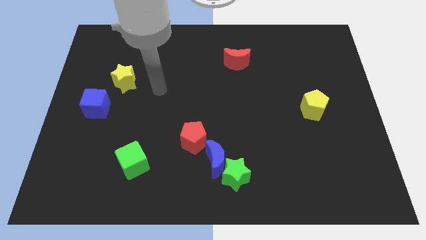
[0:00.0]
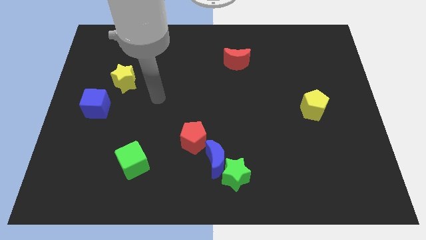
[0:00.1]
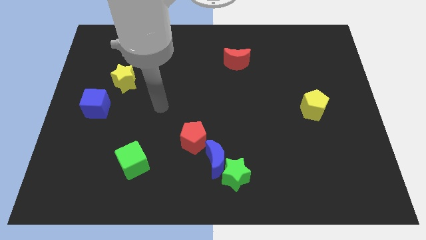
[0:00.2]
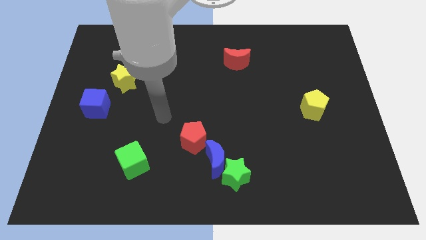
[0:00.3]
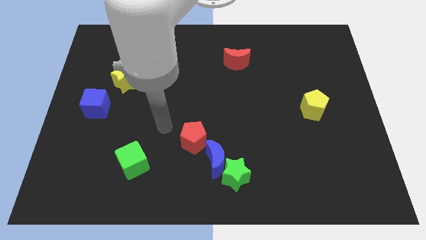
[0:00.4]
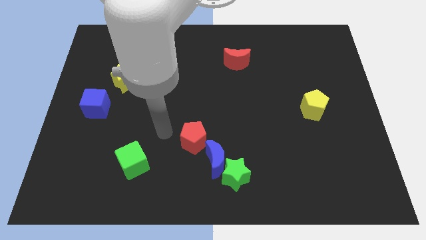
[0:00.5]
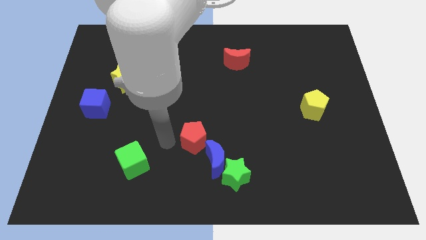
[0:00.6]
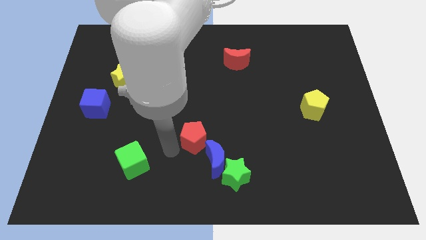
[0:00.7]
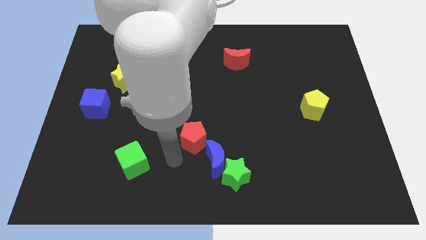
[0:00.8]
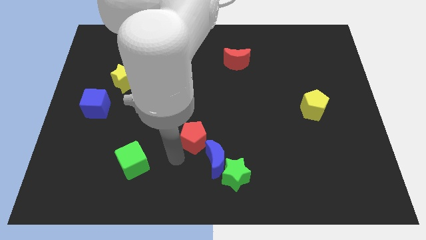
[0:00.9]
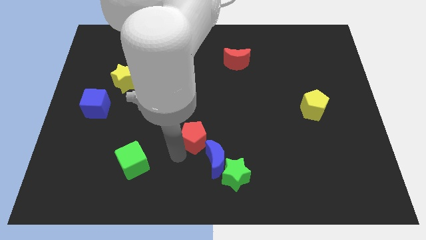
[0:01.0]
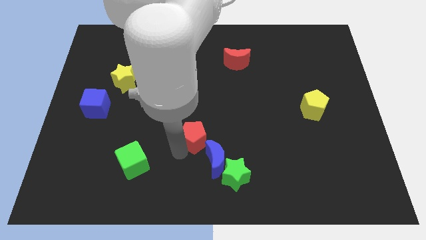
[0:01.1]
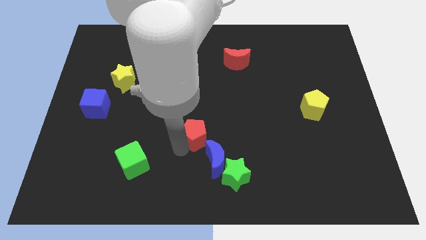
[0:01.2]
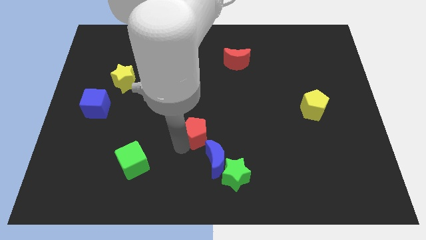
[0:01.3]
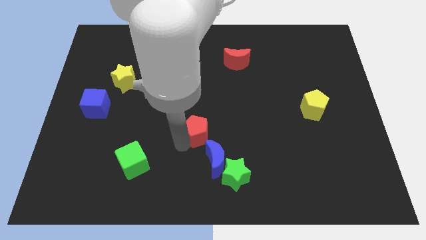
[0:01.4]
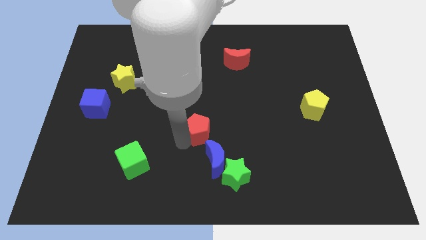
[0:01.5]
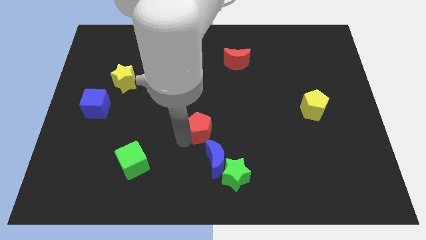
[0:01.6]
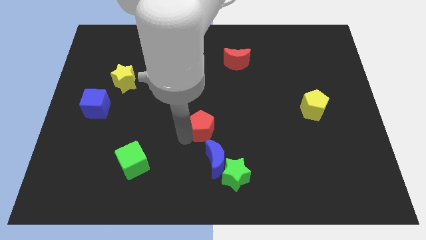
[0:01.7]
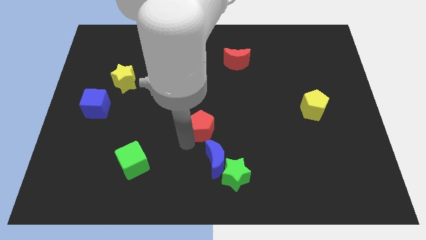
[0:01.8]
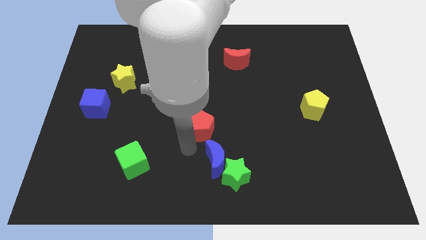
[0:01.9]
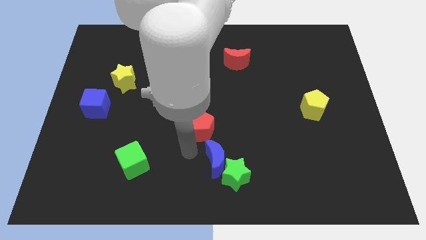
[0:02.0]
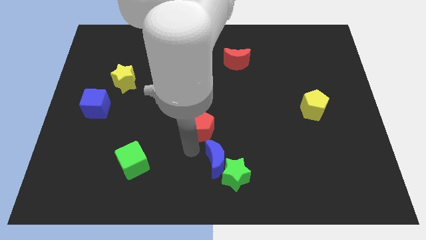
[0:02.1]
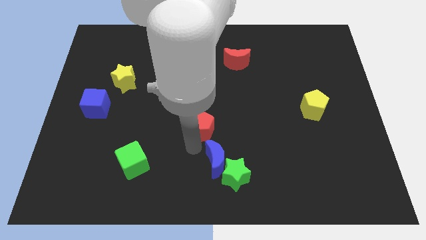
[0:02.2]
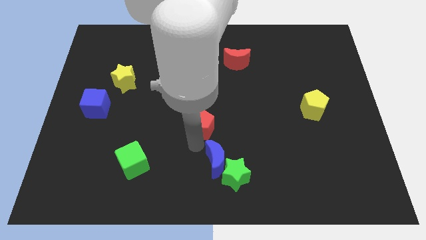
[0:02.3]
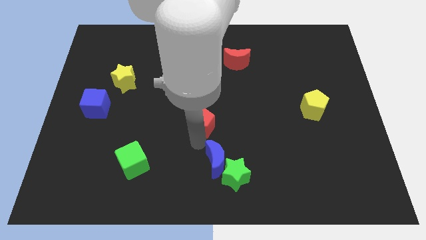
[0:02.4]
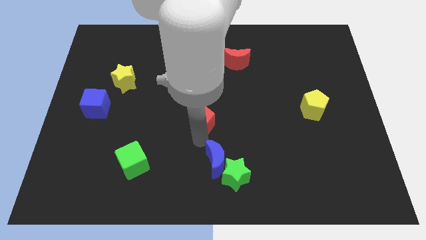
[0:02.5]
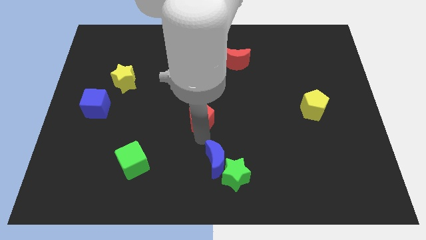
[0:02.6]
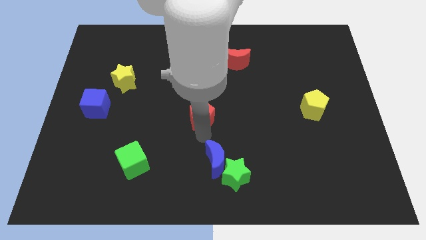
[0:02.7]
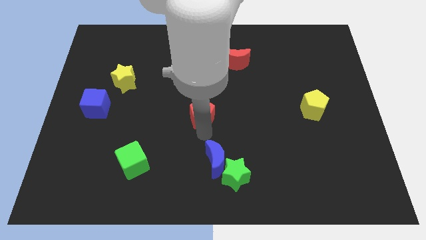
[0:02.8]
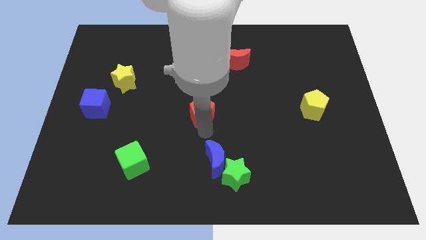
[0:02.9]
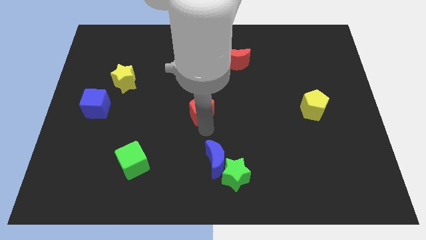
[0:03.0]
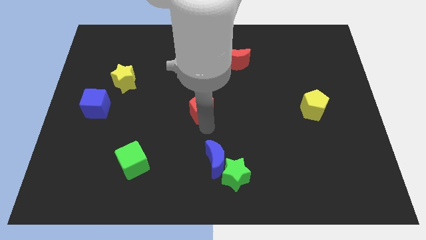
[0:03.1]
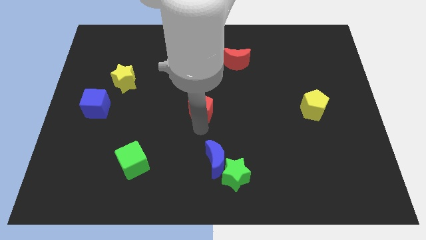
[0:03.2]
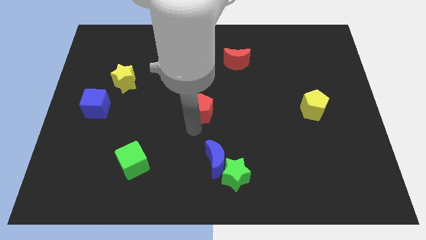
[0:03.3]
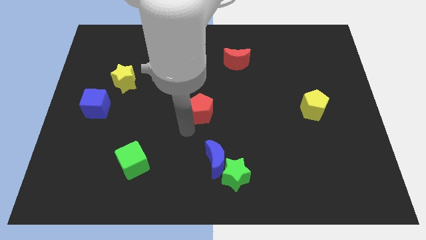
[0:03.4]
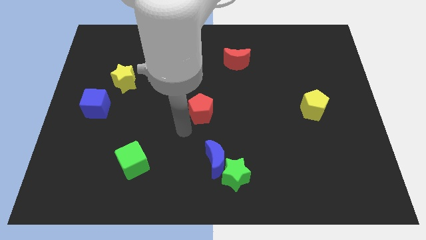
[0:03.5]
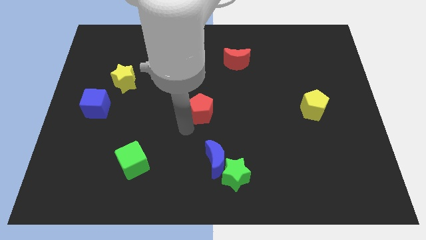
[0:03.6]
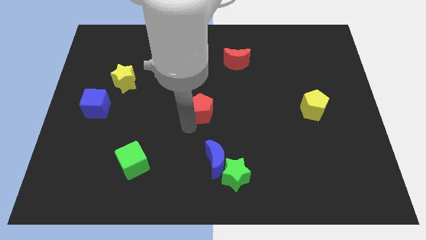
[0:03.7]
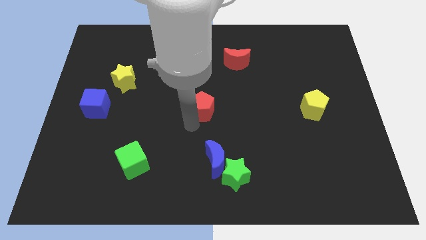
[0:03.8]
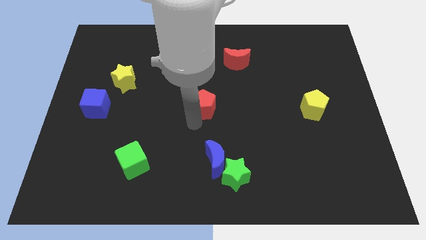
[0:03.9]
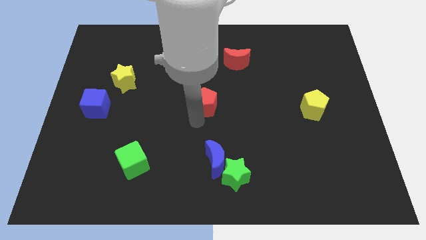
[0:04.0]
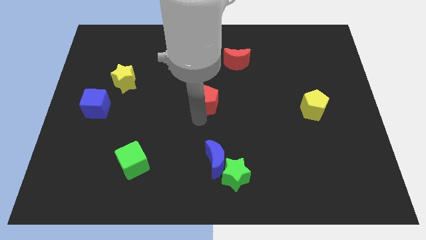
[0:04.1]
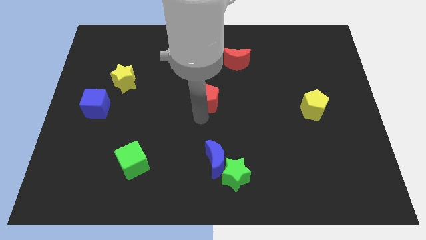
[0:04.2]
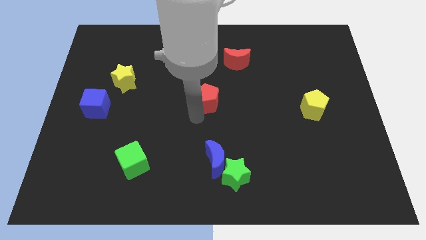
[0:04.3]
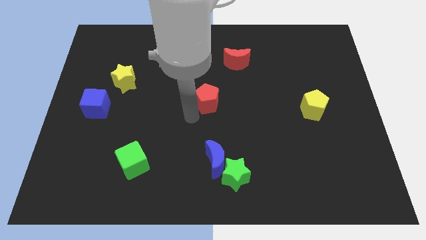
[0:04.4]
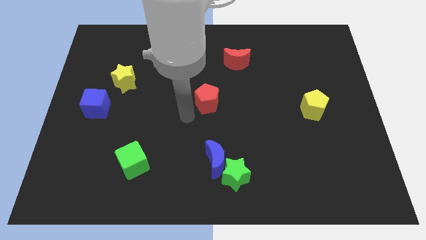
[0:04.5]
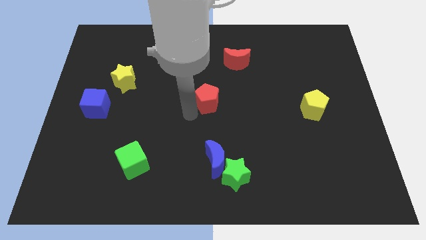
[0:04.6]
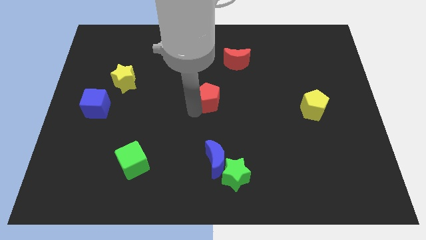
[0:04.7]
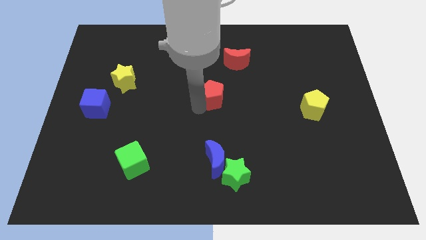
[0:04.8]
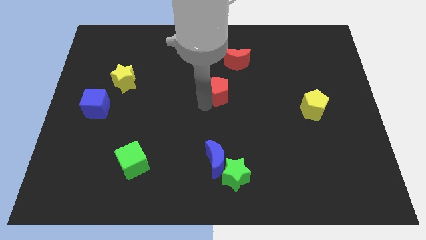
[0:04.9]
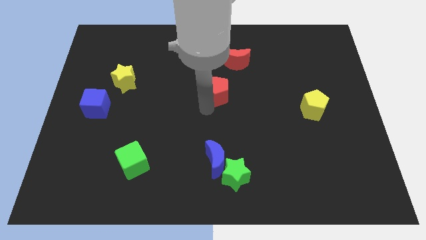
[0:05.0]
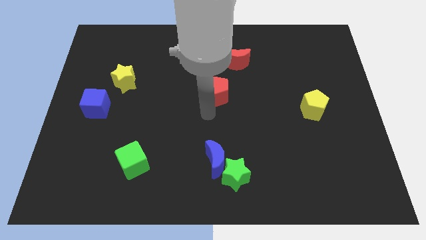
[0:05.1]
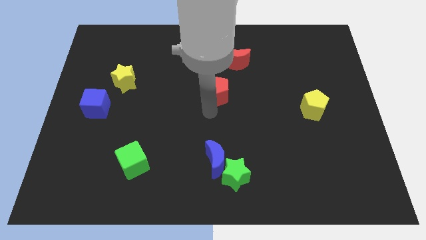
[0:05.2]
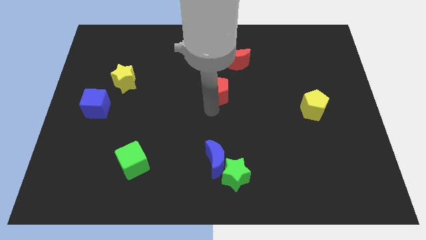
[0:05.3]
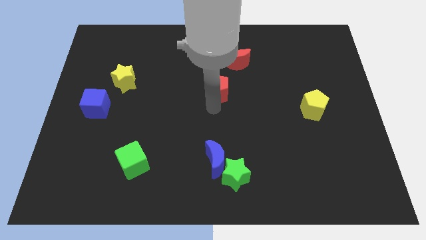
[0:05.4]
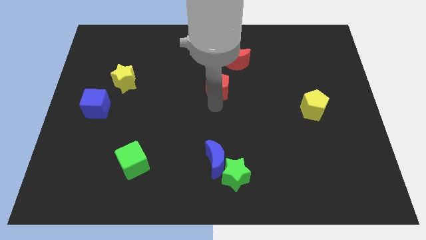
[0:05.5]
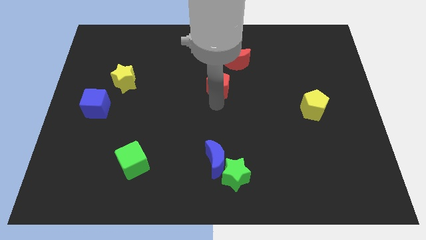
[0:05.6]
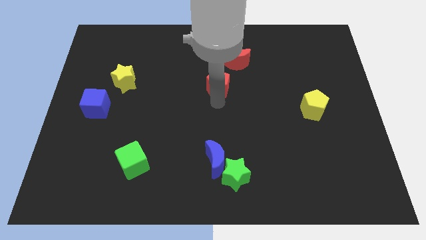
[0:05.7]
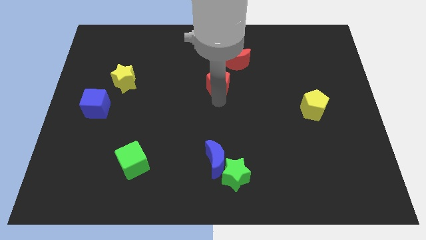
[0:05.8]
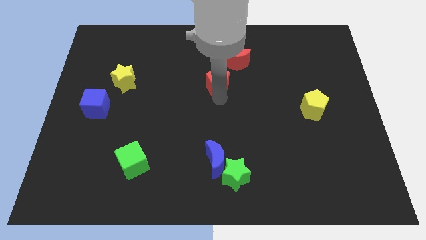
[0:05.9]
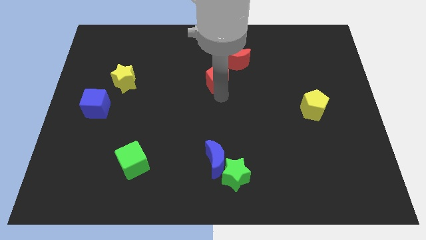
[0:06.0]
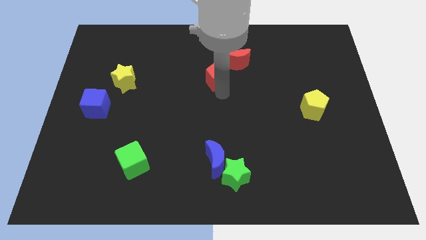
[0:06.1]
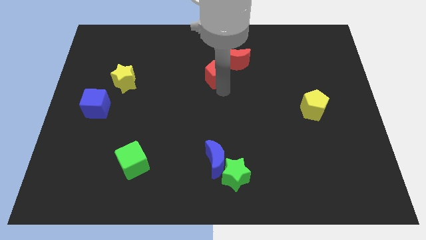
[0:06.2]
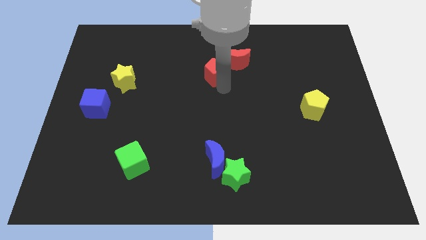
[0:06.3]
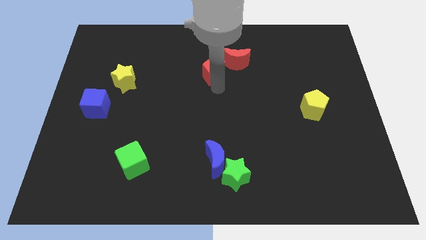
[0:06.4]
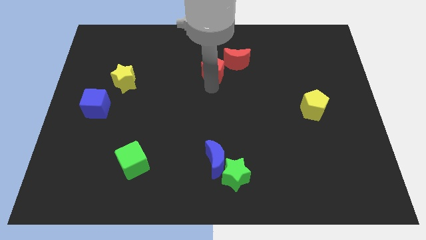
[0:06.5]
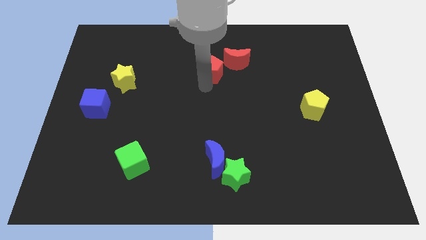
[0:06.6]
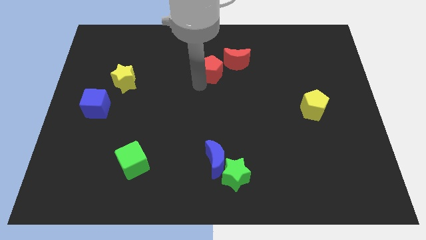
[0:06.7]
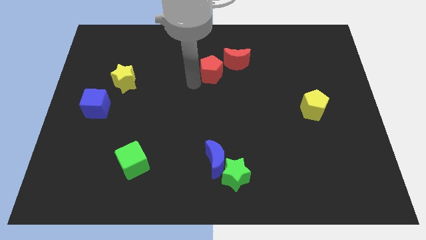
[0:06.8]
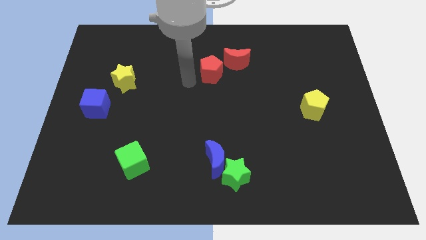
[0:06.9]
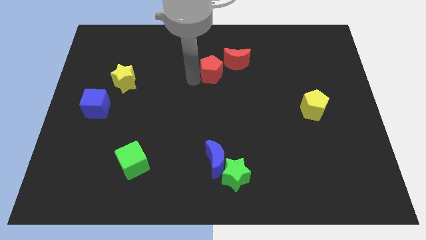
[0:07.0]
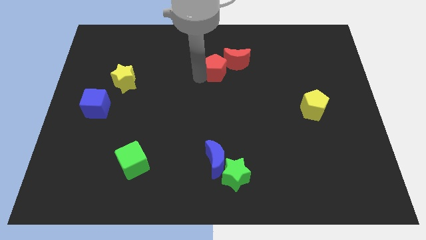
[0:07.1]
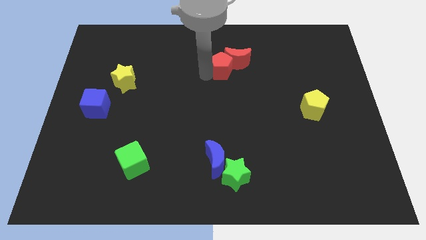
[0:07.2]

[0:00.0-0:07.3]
push the red pentagon towards the red moon
